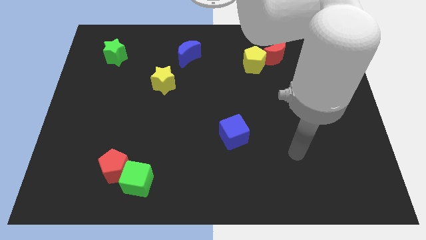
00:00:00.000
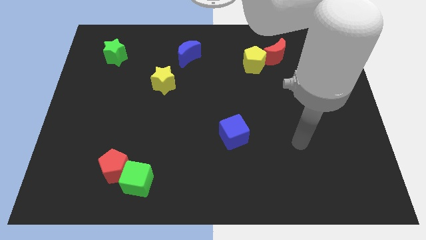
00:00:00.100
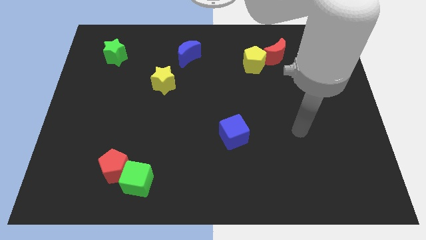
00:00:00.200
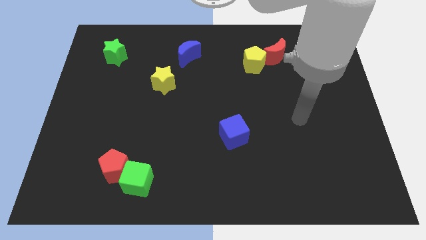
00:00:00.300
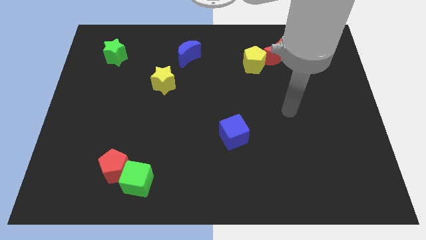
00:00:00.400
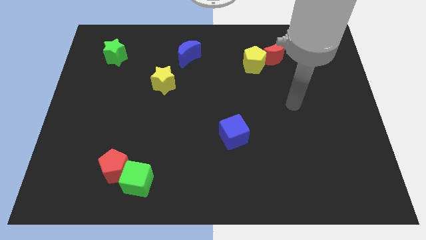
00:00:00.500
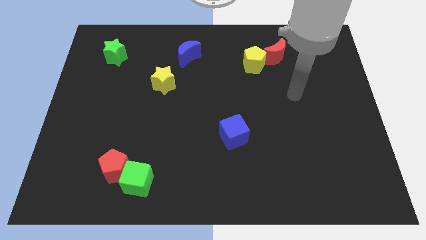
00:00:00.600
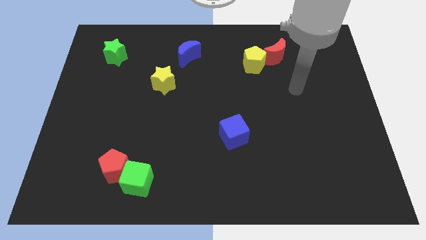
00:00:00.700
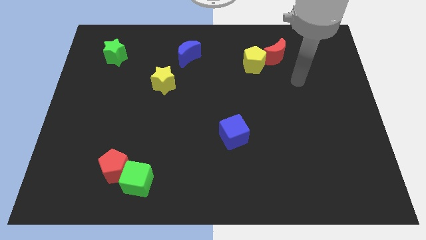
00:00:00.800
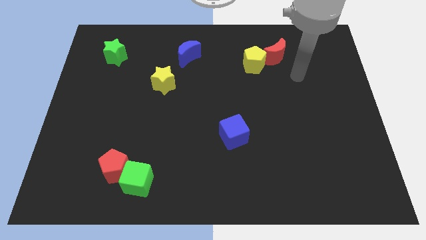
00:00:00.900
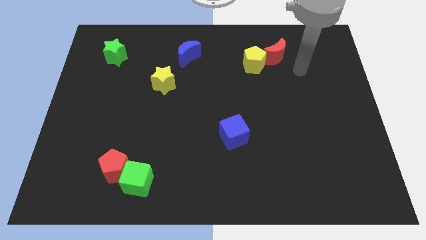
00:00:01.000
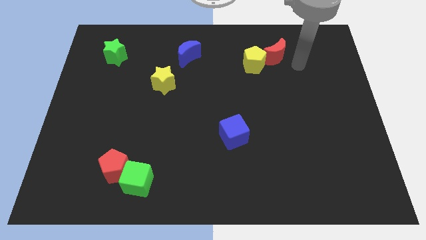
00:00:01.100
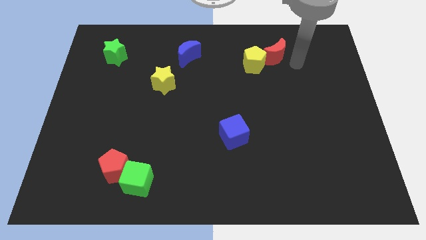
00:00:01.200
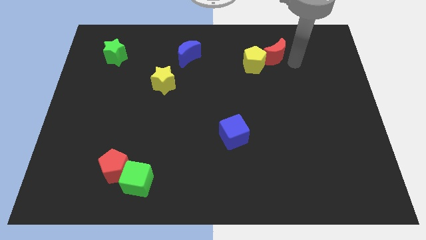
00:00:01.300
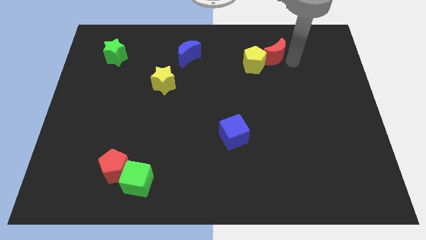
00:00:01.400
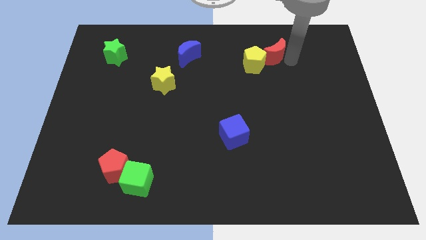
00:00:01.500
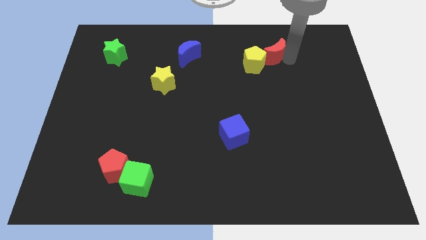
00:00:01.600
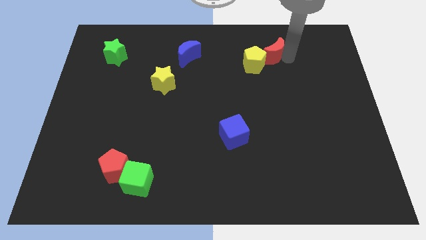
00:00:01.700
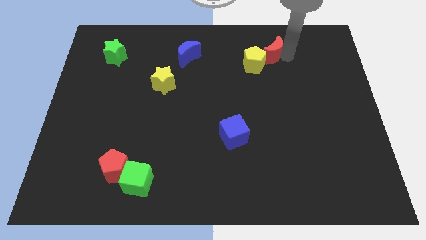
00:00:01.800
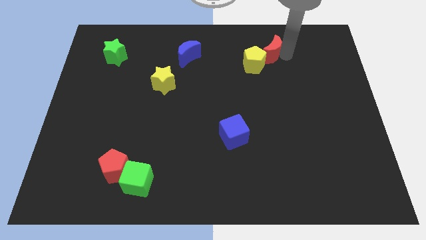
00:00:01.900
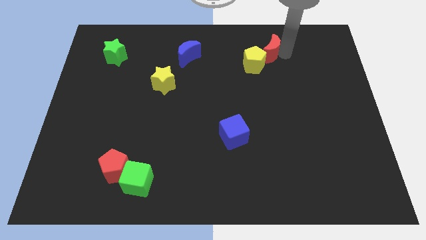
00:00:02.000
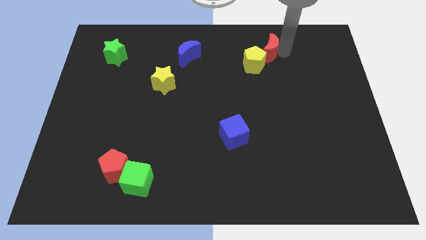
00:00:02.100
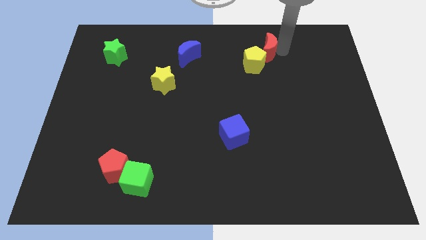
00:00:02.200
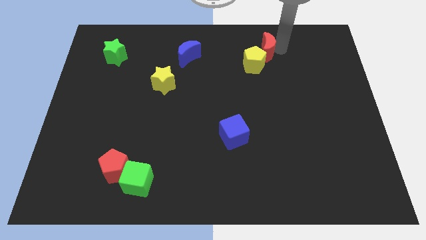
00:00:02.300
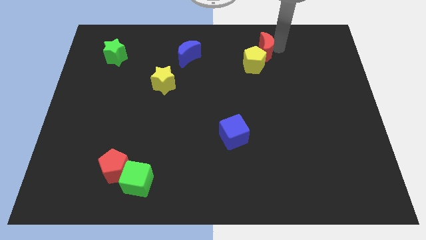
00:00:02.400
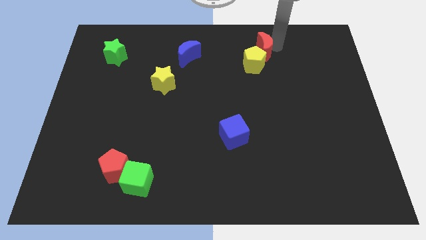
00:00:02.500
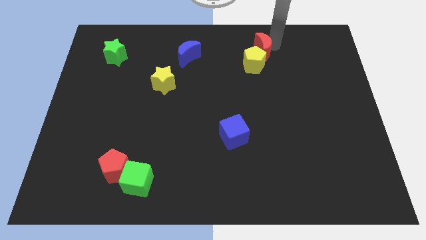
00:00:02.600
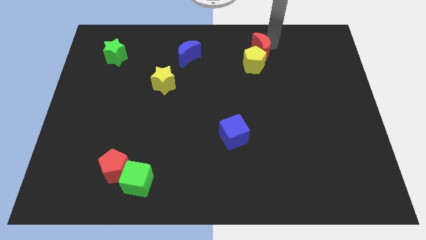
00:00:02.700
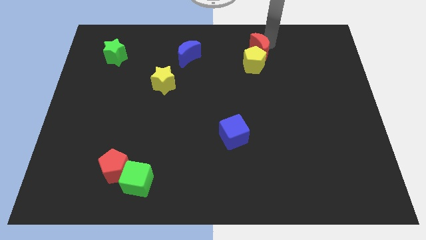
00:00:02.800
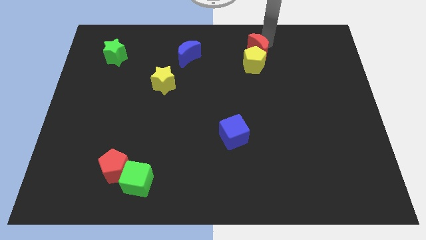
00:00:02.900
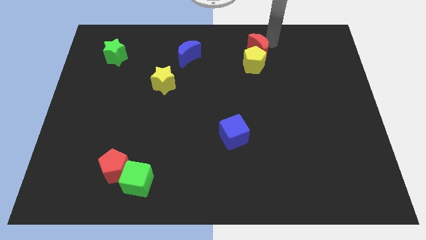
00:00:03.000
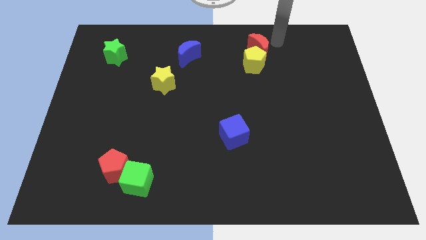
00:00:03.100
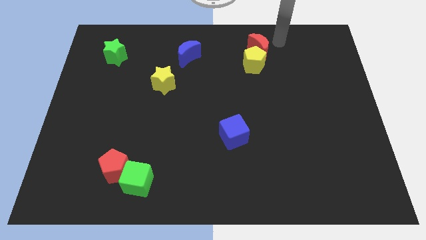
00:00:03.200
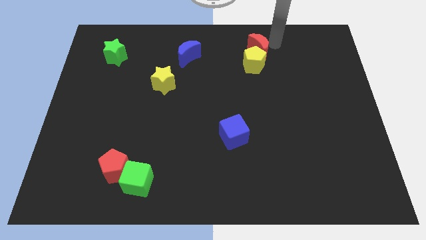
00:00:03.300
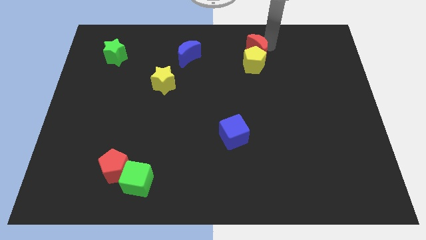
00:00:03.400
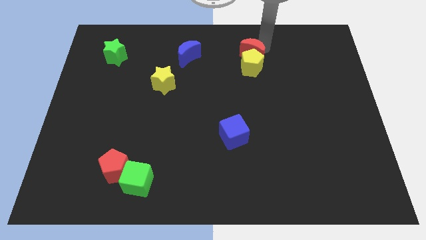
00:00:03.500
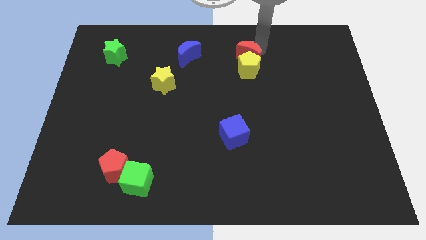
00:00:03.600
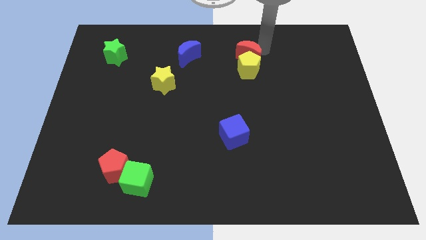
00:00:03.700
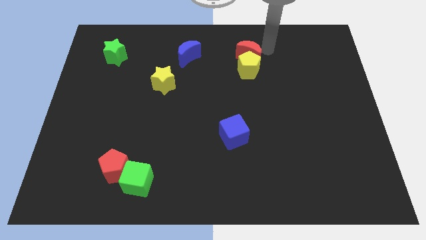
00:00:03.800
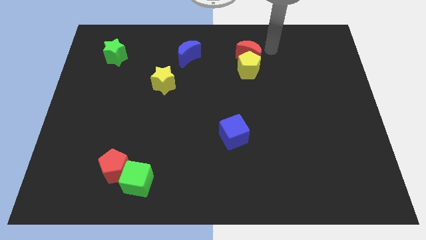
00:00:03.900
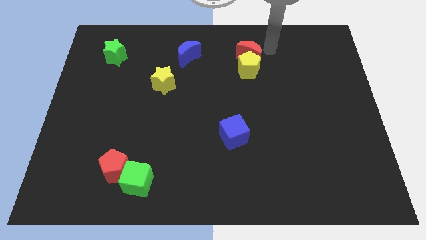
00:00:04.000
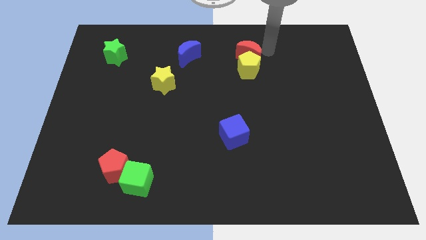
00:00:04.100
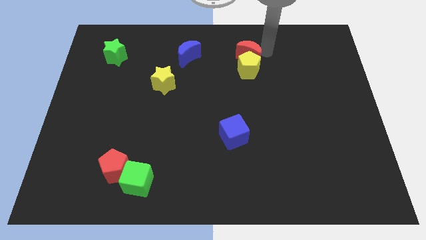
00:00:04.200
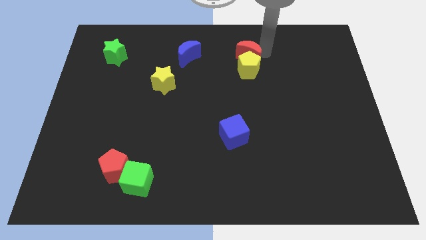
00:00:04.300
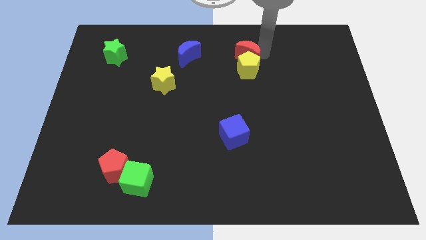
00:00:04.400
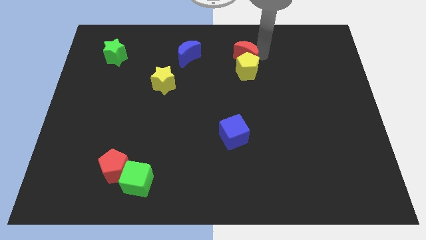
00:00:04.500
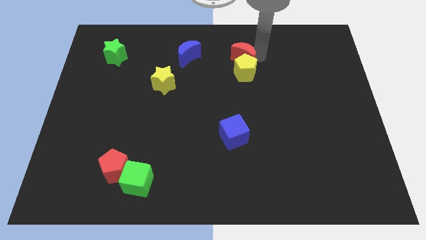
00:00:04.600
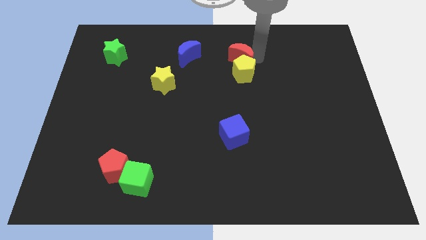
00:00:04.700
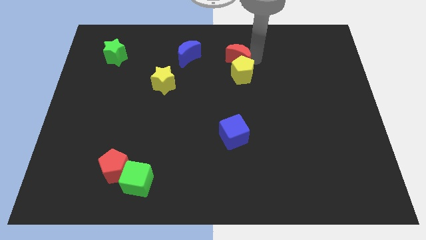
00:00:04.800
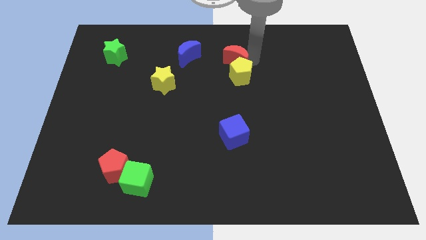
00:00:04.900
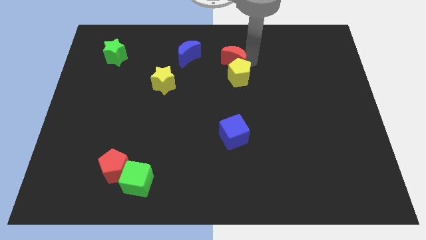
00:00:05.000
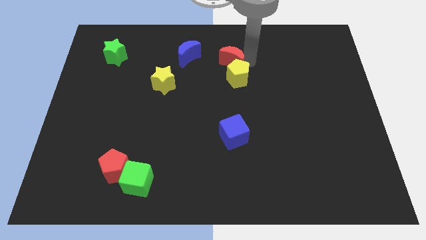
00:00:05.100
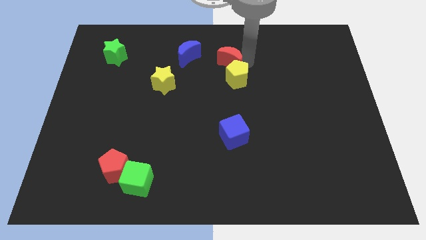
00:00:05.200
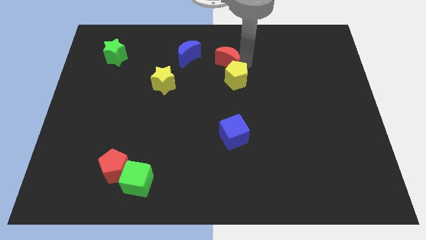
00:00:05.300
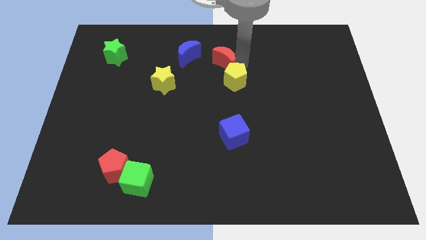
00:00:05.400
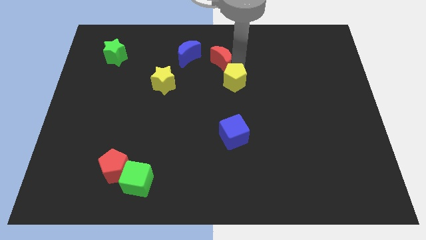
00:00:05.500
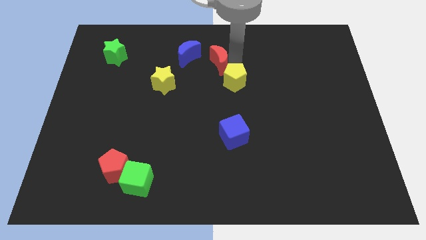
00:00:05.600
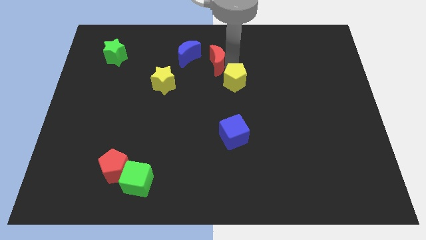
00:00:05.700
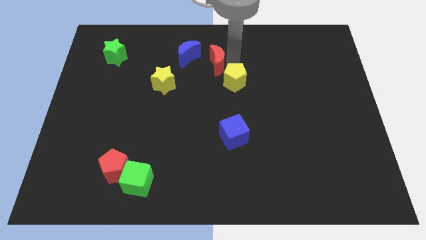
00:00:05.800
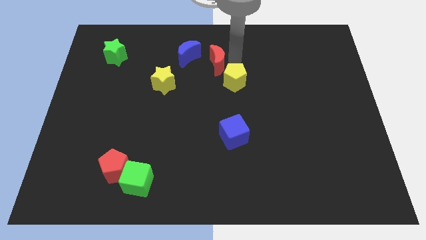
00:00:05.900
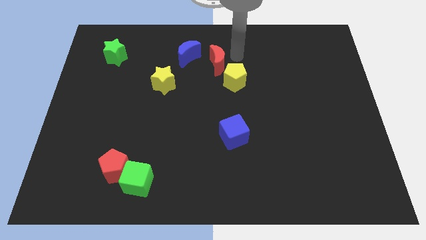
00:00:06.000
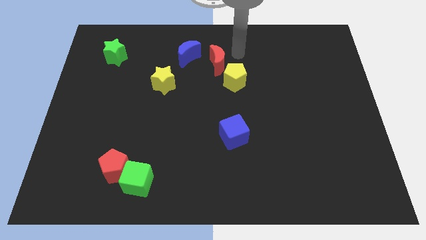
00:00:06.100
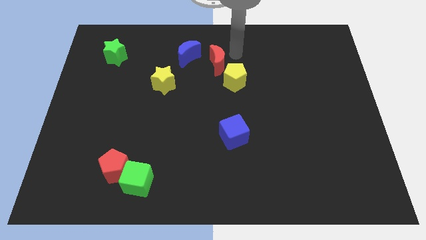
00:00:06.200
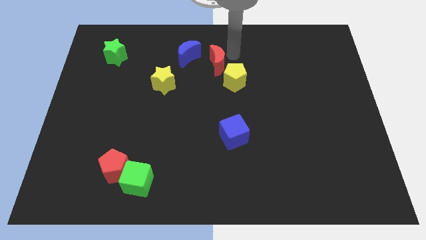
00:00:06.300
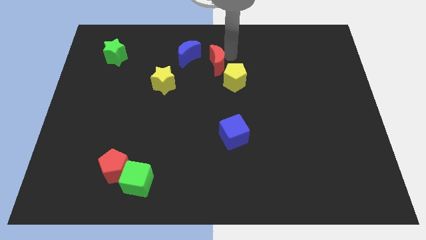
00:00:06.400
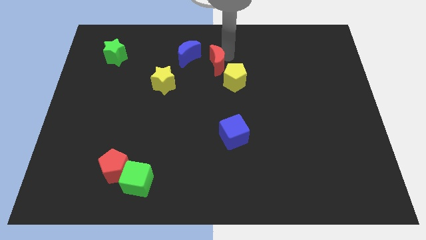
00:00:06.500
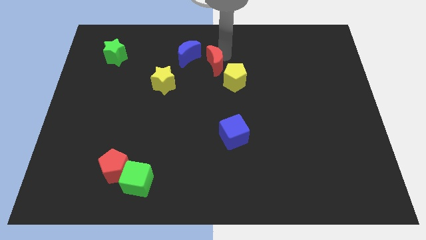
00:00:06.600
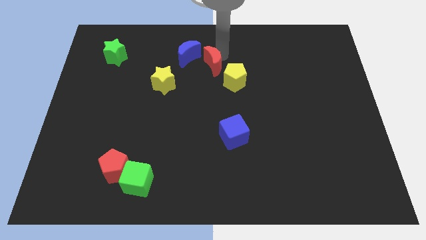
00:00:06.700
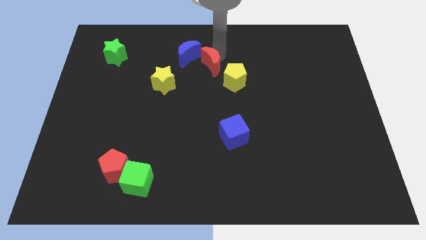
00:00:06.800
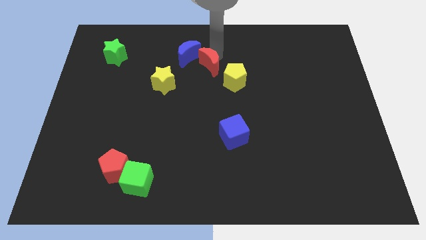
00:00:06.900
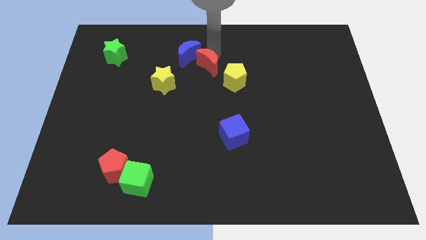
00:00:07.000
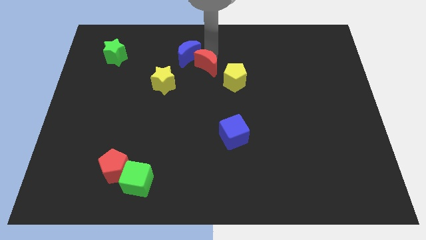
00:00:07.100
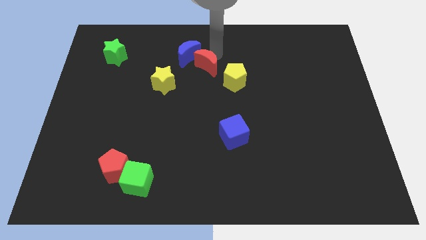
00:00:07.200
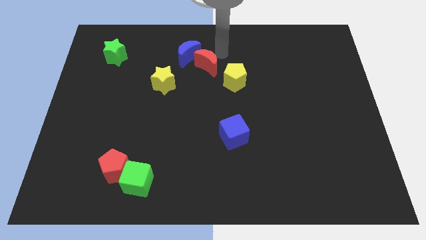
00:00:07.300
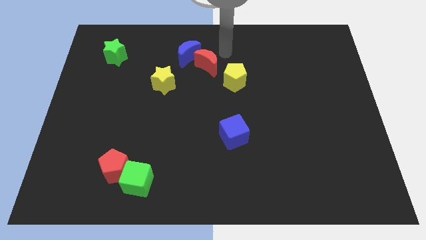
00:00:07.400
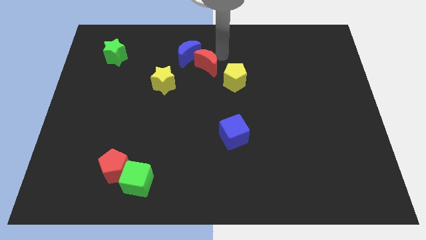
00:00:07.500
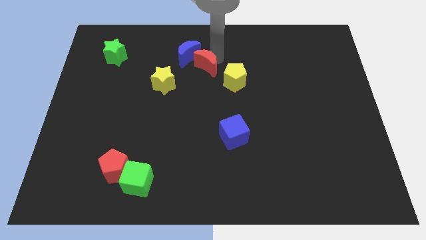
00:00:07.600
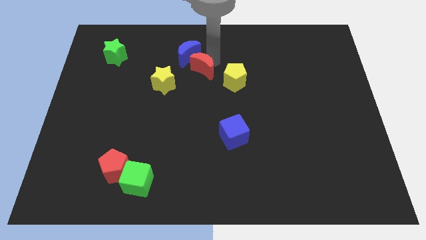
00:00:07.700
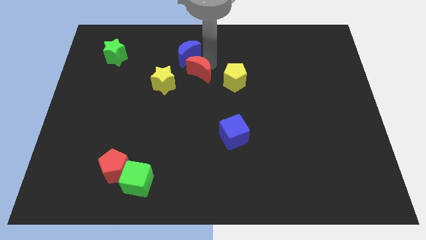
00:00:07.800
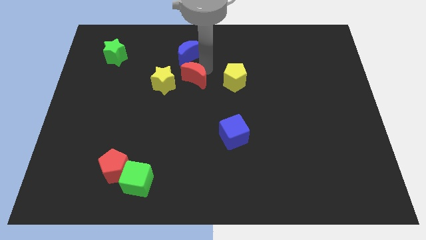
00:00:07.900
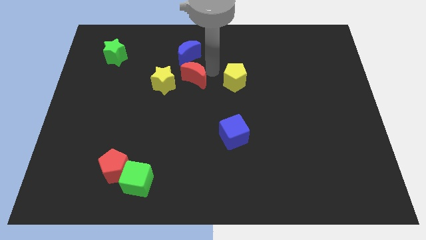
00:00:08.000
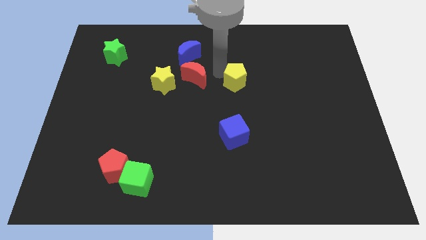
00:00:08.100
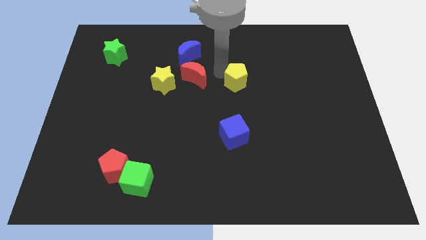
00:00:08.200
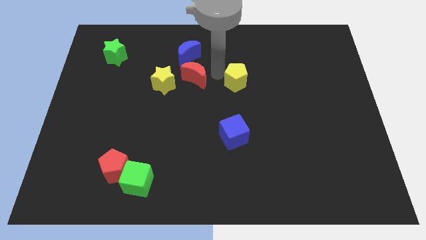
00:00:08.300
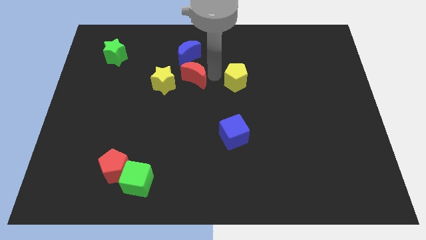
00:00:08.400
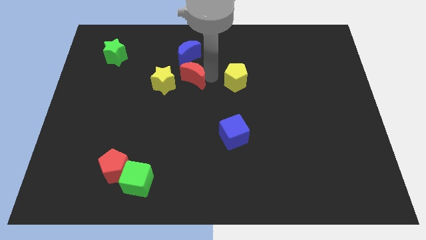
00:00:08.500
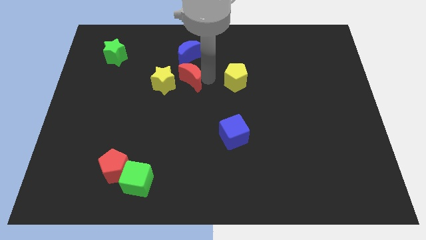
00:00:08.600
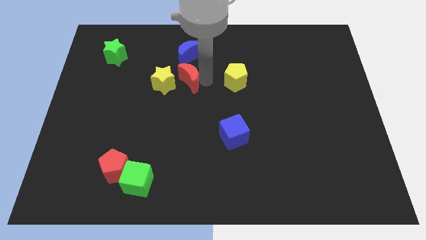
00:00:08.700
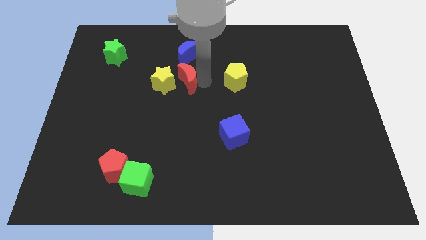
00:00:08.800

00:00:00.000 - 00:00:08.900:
slide the red moon next to the yellow star
